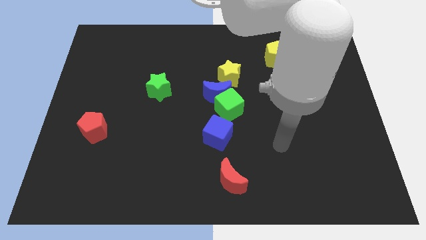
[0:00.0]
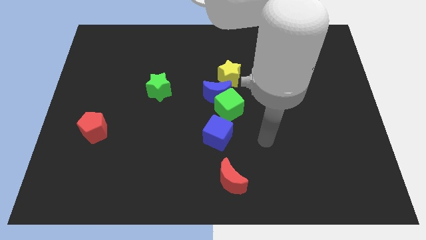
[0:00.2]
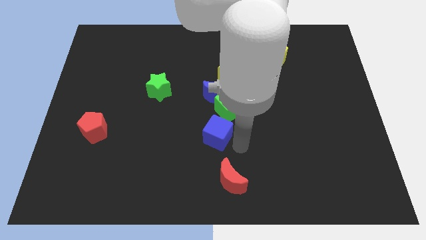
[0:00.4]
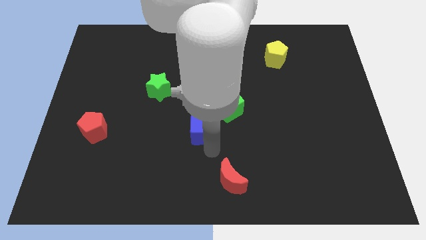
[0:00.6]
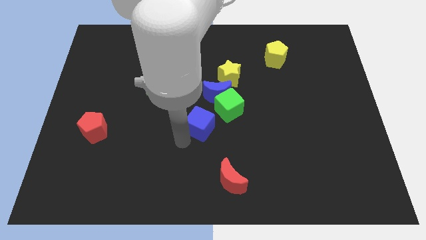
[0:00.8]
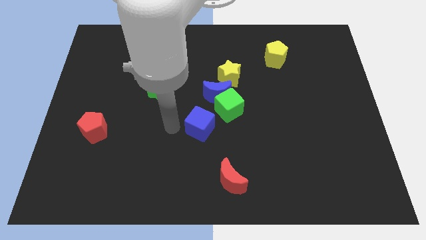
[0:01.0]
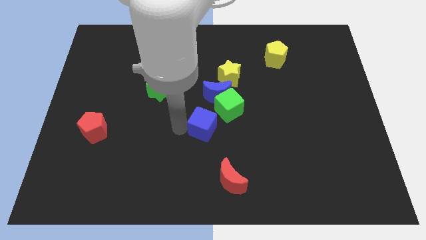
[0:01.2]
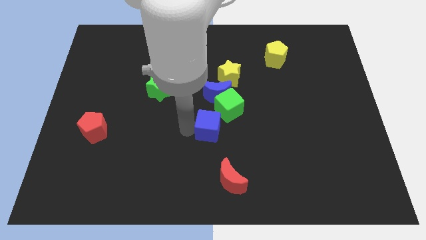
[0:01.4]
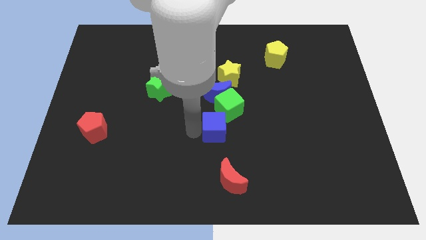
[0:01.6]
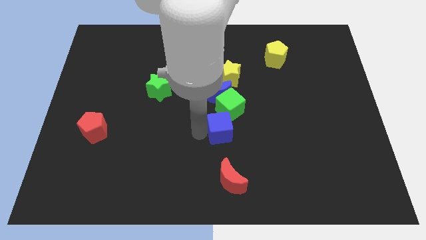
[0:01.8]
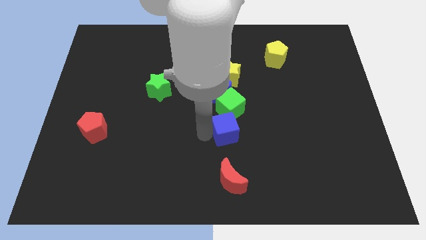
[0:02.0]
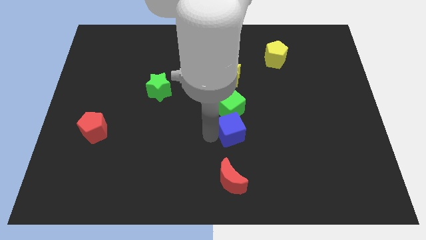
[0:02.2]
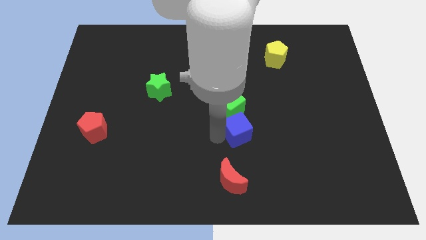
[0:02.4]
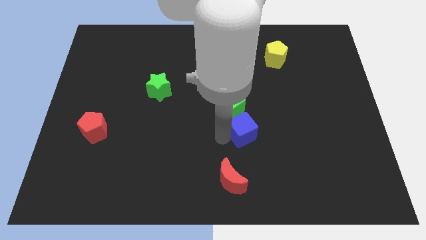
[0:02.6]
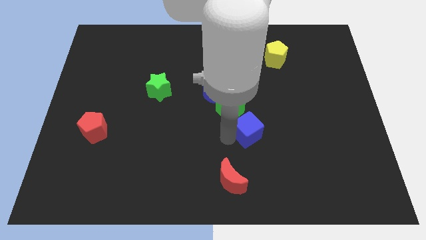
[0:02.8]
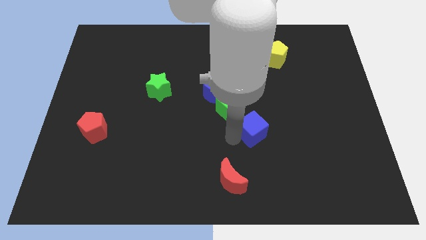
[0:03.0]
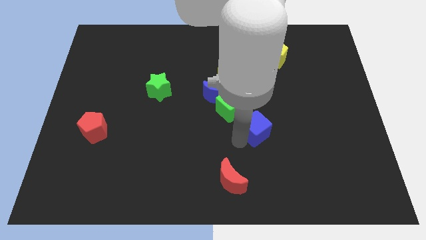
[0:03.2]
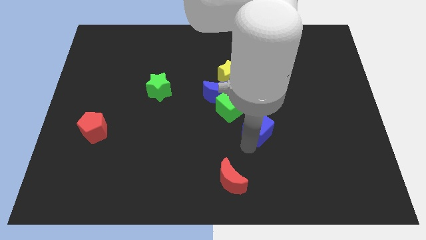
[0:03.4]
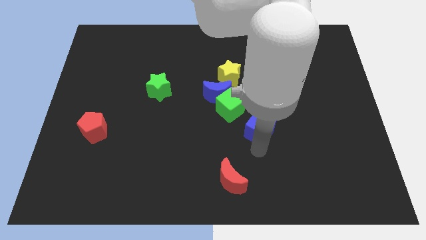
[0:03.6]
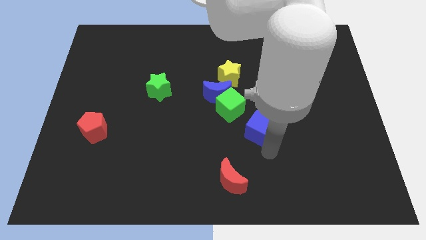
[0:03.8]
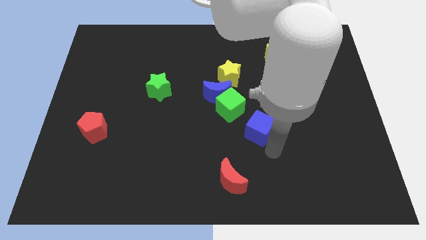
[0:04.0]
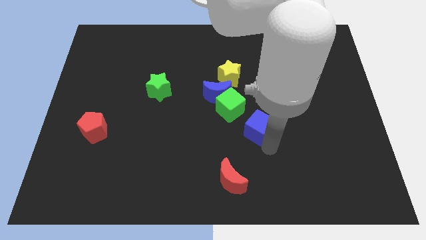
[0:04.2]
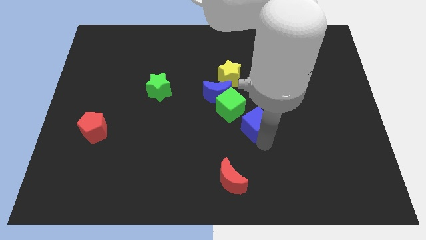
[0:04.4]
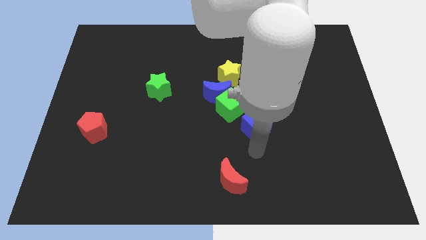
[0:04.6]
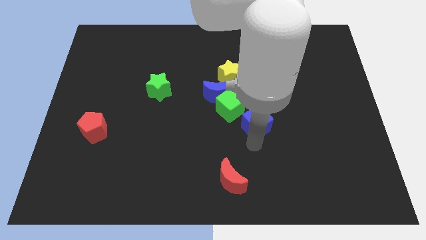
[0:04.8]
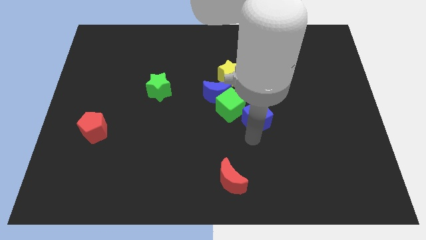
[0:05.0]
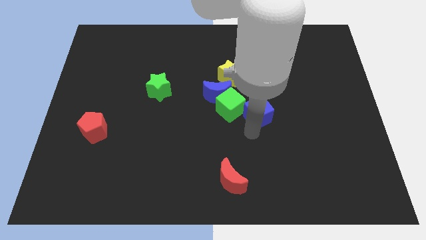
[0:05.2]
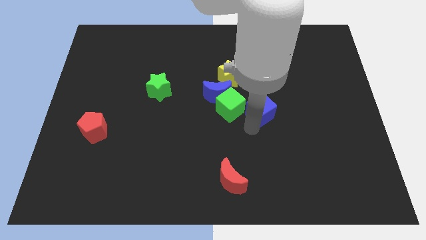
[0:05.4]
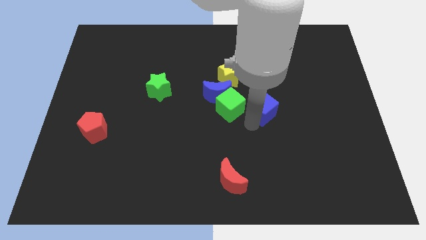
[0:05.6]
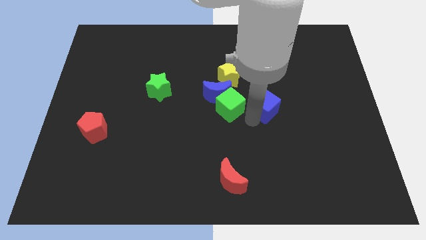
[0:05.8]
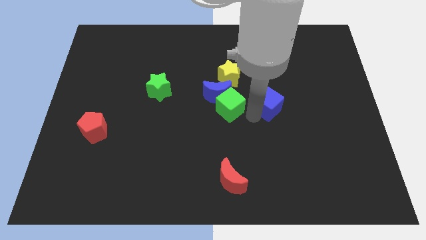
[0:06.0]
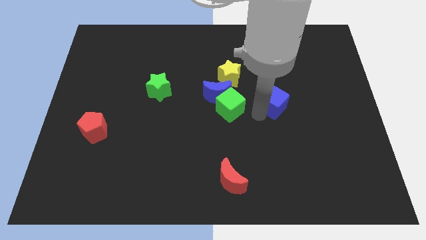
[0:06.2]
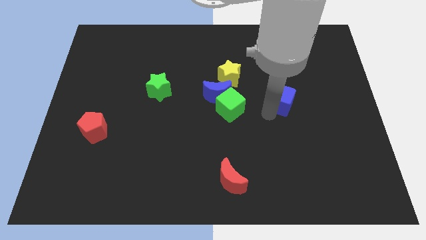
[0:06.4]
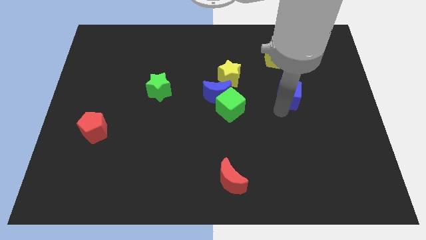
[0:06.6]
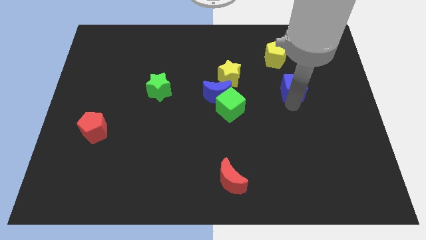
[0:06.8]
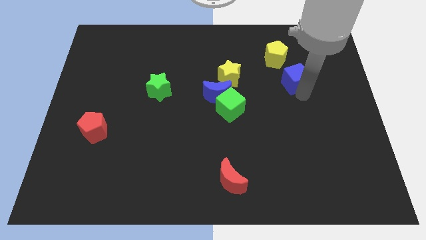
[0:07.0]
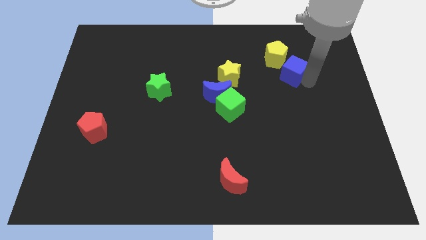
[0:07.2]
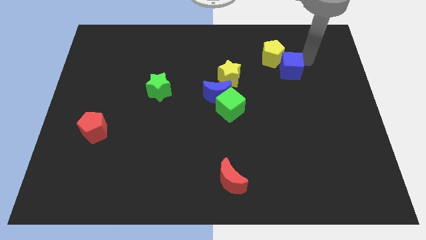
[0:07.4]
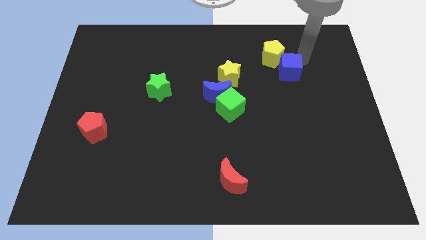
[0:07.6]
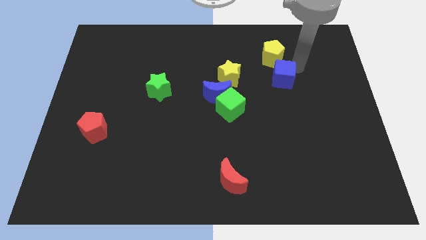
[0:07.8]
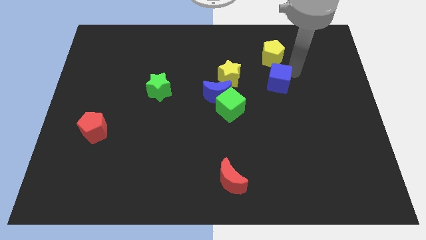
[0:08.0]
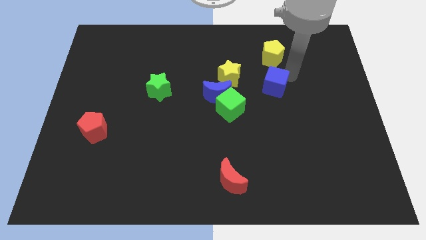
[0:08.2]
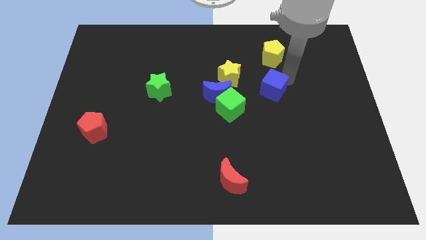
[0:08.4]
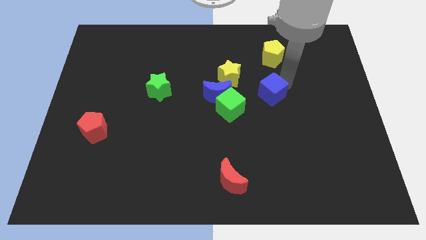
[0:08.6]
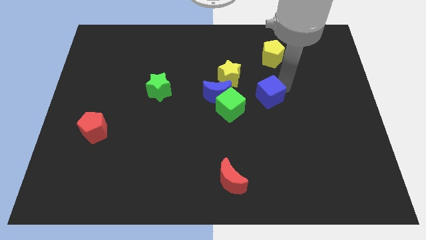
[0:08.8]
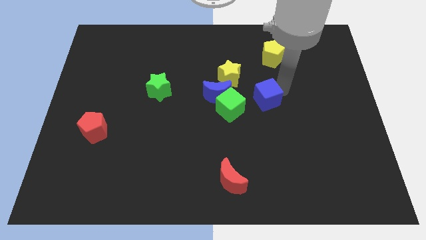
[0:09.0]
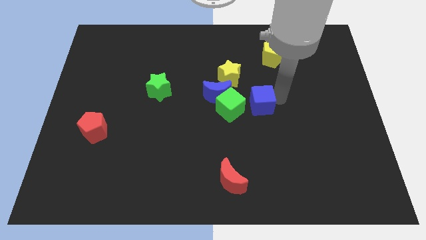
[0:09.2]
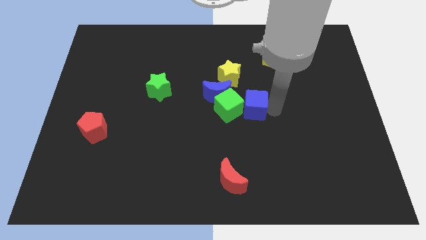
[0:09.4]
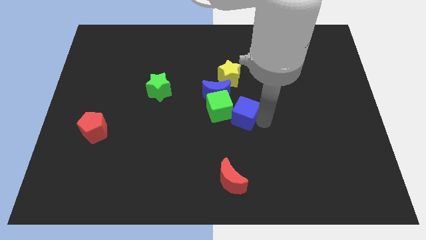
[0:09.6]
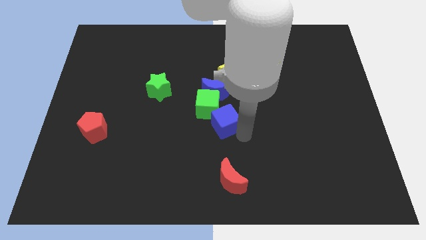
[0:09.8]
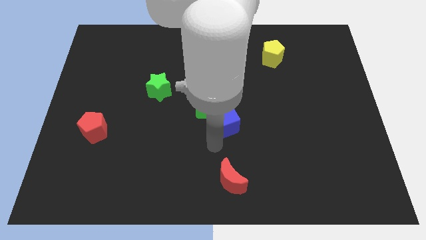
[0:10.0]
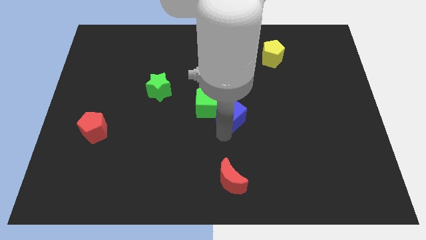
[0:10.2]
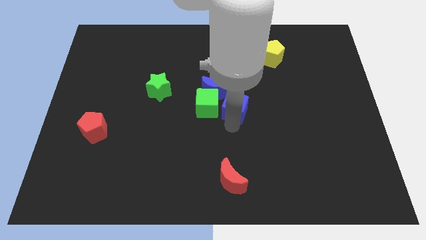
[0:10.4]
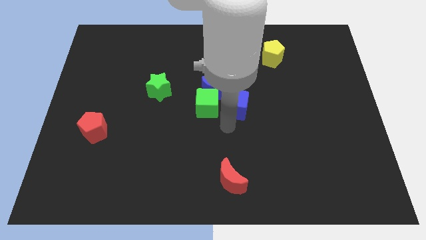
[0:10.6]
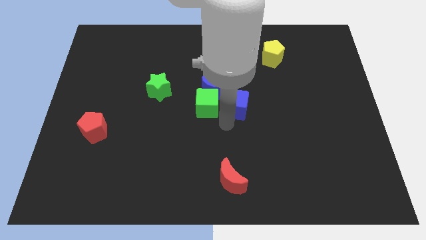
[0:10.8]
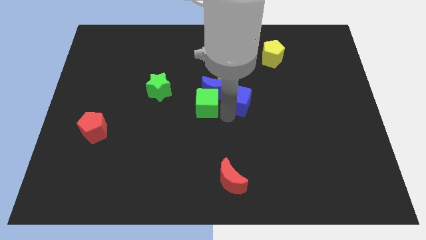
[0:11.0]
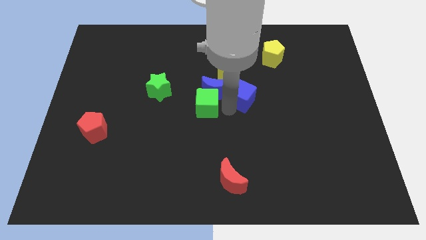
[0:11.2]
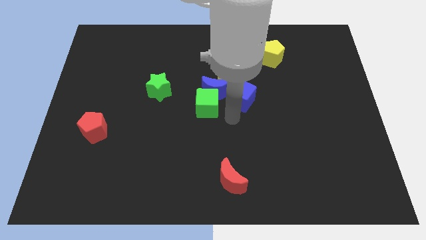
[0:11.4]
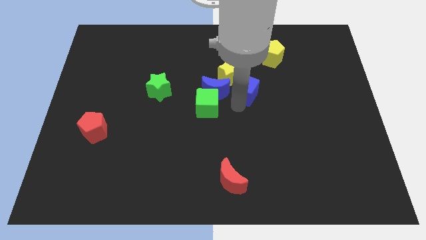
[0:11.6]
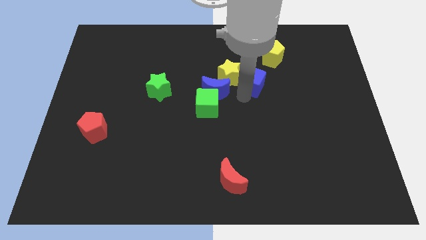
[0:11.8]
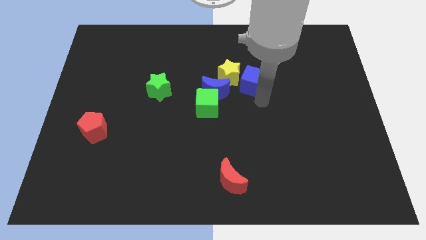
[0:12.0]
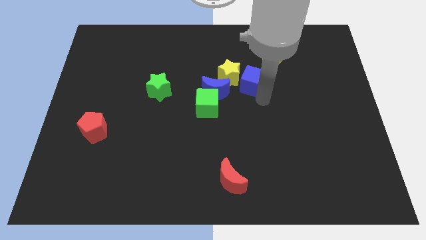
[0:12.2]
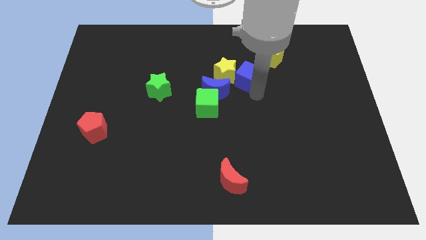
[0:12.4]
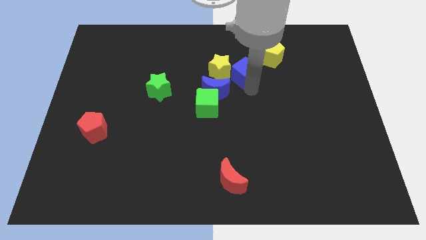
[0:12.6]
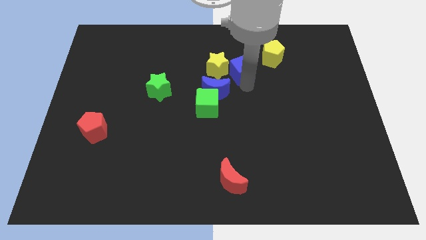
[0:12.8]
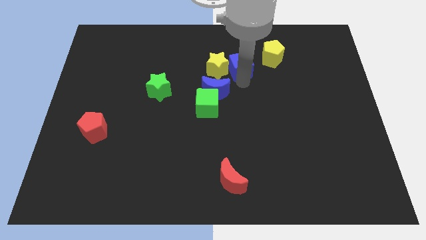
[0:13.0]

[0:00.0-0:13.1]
move the blue cube to the left side of the yellow pentagon

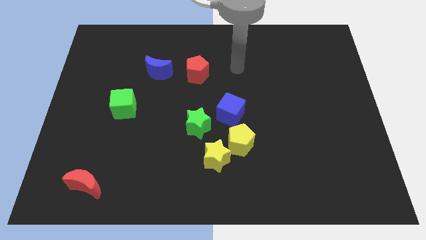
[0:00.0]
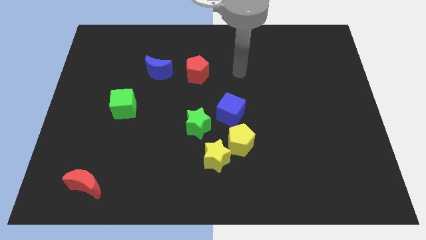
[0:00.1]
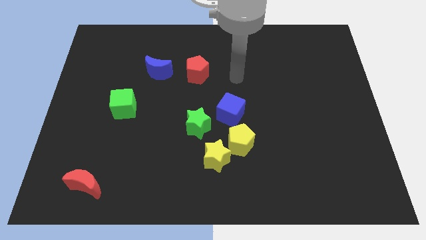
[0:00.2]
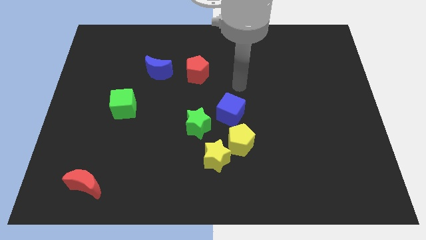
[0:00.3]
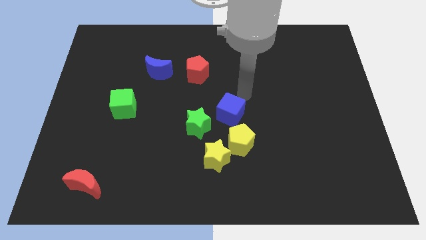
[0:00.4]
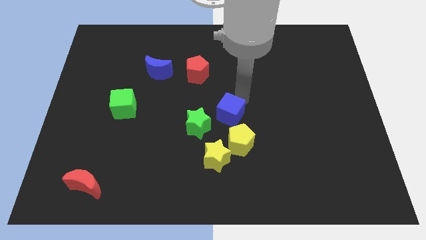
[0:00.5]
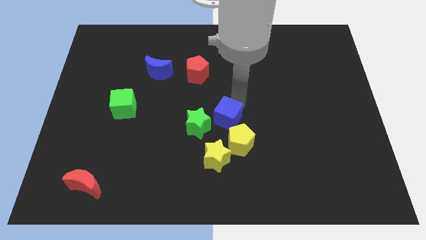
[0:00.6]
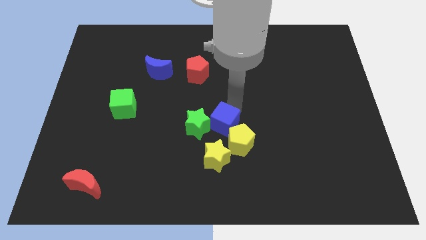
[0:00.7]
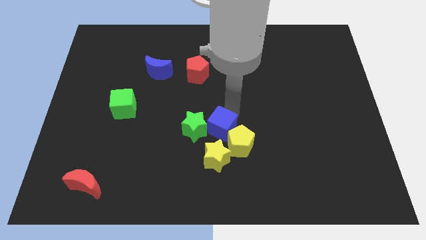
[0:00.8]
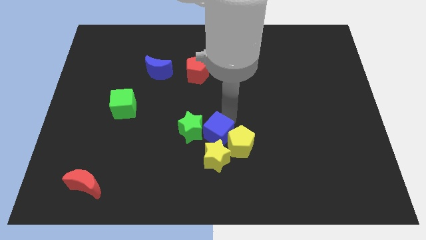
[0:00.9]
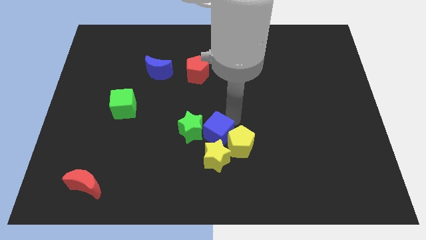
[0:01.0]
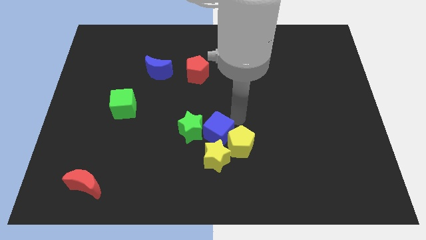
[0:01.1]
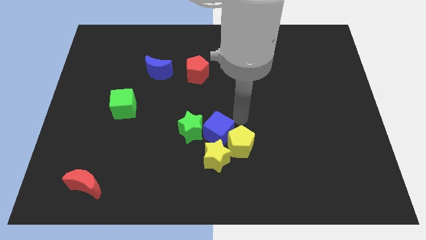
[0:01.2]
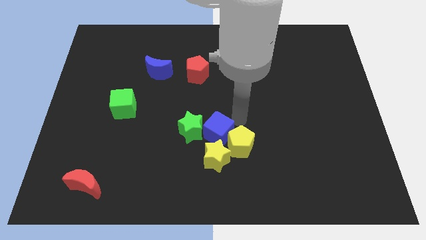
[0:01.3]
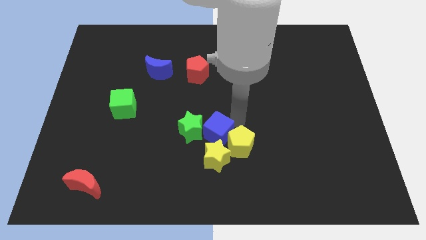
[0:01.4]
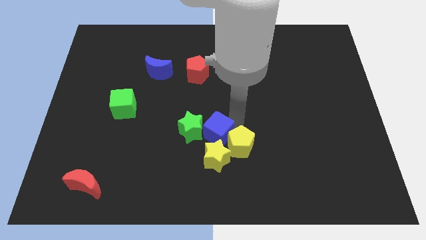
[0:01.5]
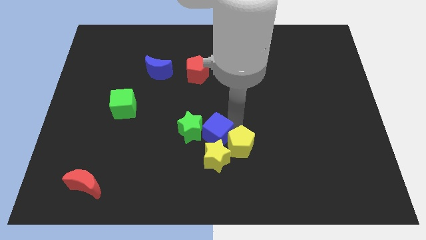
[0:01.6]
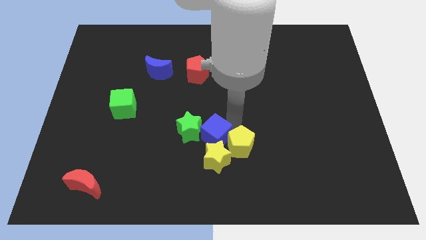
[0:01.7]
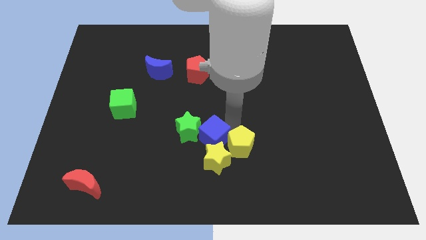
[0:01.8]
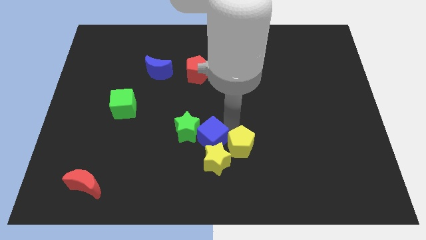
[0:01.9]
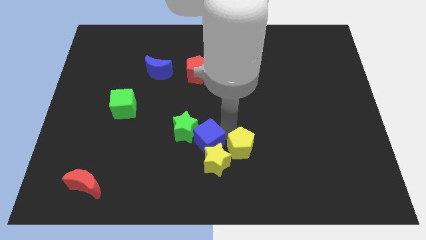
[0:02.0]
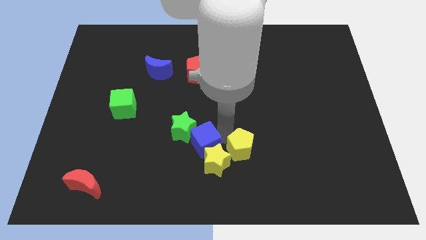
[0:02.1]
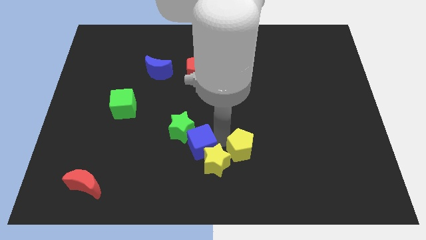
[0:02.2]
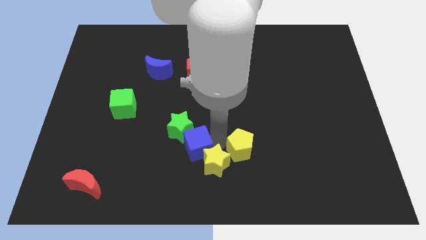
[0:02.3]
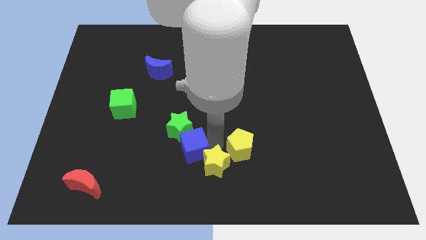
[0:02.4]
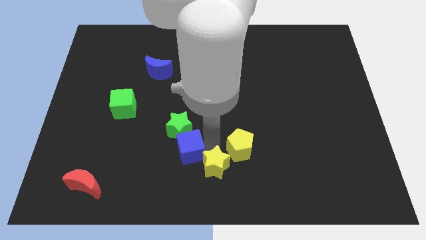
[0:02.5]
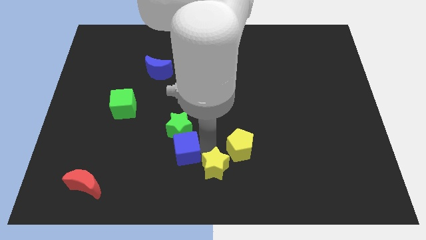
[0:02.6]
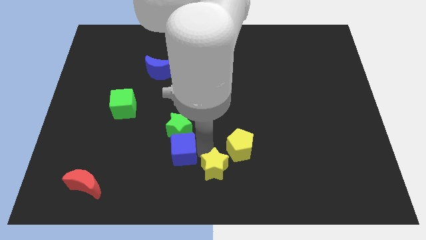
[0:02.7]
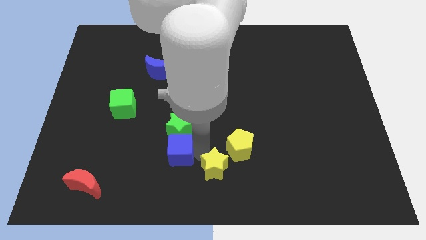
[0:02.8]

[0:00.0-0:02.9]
move the blue cube to the bottom left side of the green star
